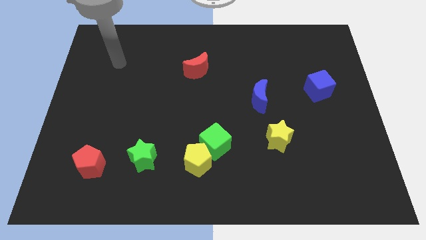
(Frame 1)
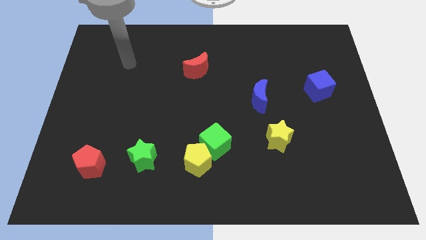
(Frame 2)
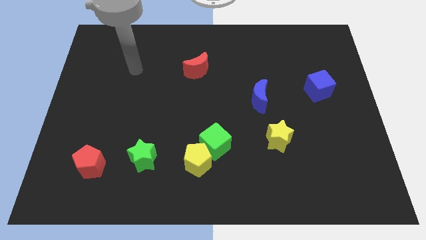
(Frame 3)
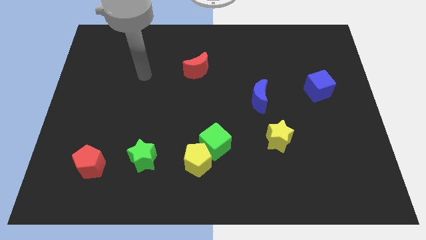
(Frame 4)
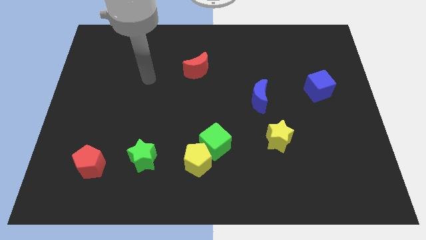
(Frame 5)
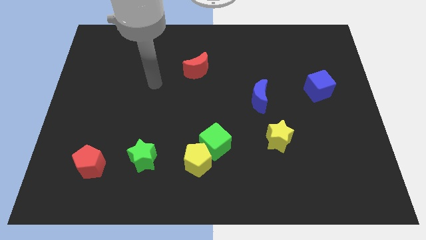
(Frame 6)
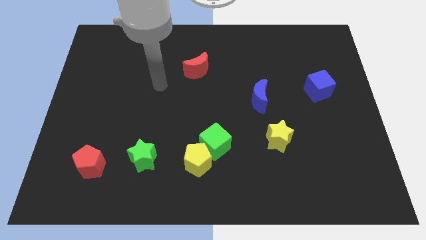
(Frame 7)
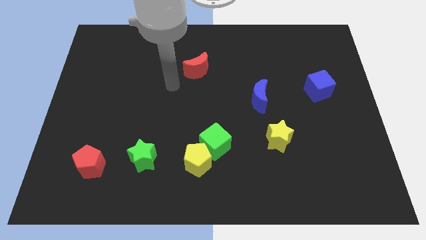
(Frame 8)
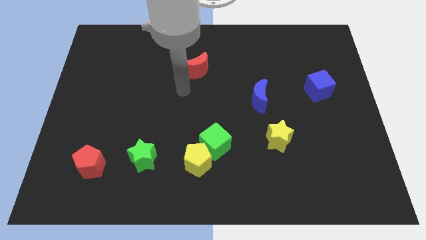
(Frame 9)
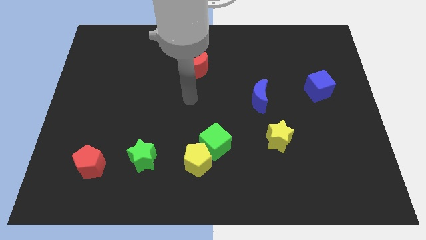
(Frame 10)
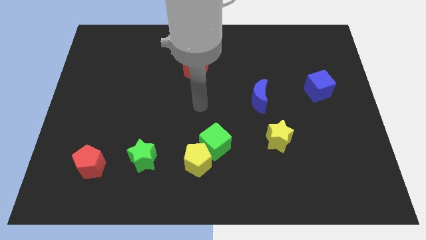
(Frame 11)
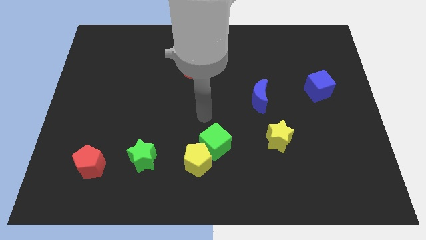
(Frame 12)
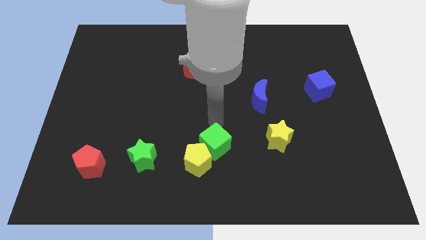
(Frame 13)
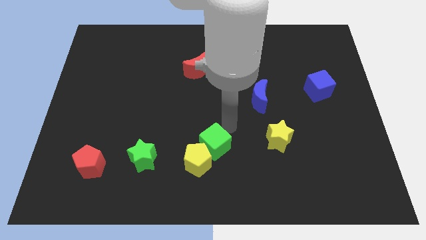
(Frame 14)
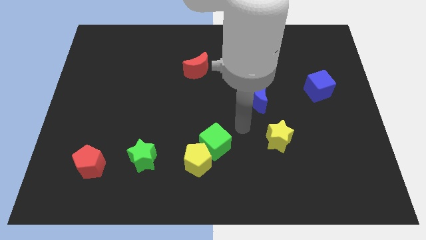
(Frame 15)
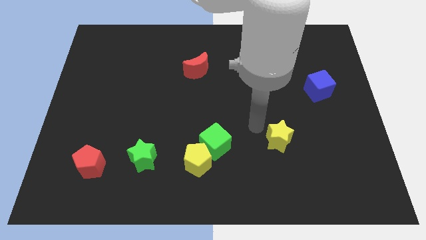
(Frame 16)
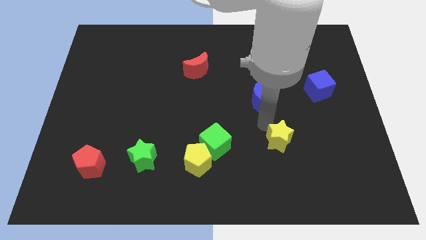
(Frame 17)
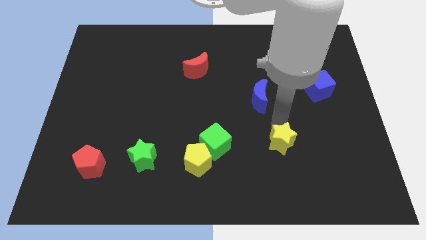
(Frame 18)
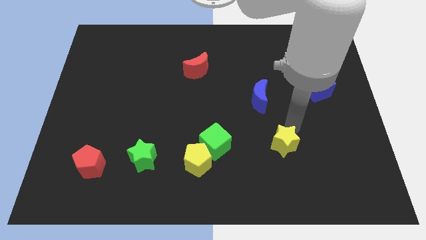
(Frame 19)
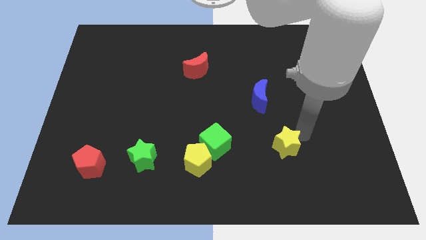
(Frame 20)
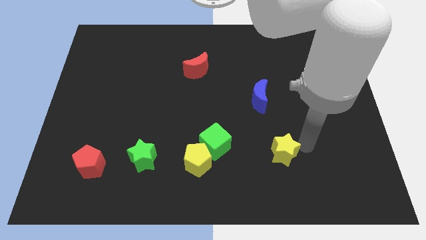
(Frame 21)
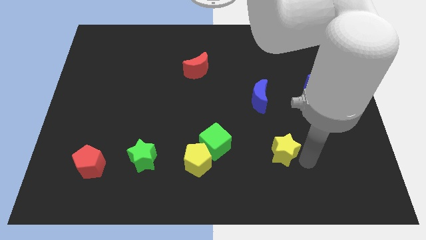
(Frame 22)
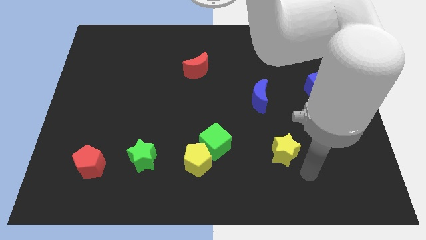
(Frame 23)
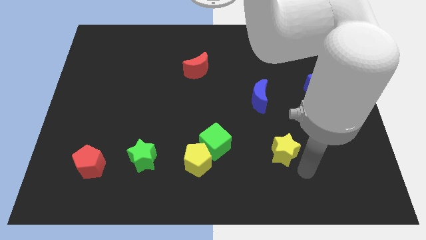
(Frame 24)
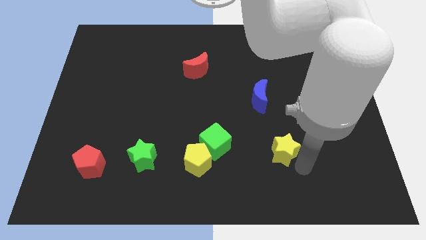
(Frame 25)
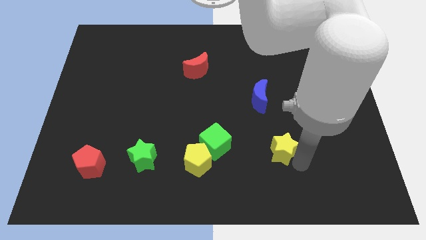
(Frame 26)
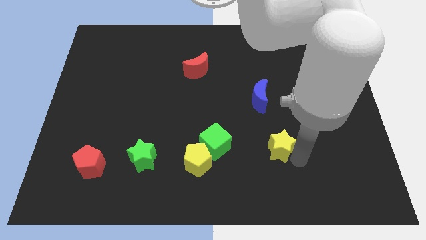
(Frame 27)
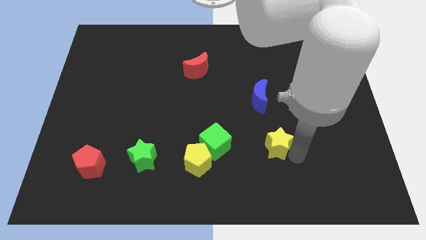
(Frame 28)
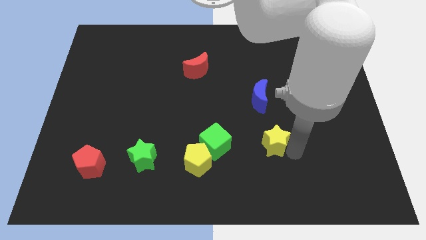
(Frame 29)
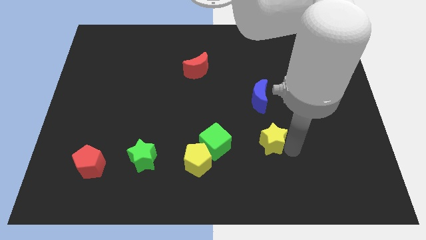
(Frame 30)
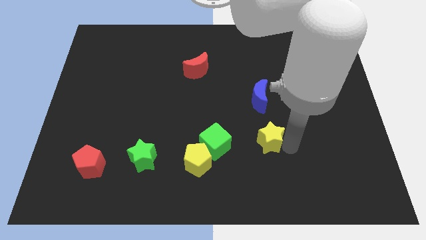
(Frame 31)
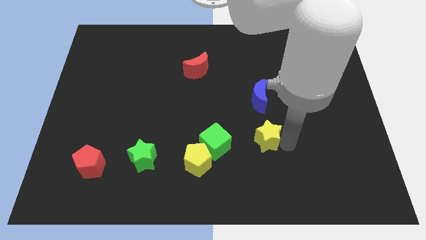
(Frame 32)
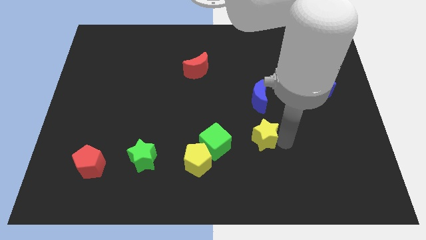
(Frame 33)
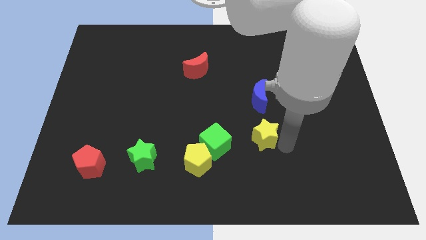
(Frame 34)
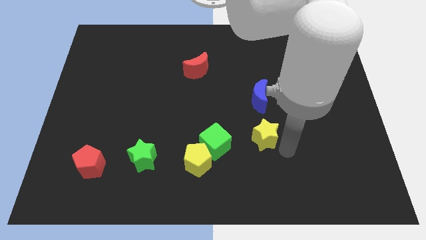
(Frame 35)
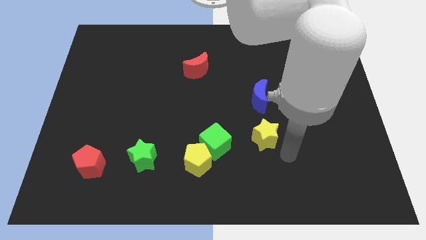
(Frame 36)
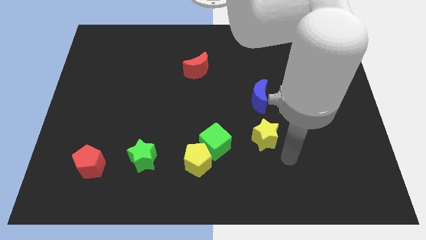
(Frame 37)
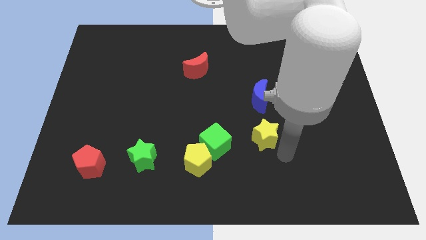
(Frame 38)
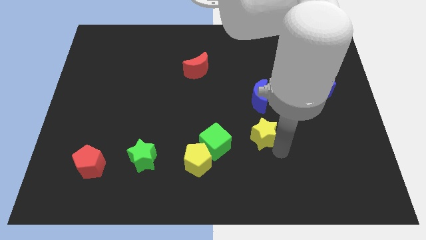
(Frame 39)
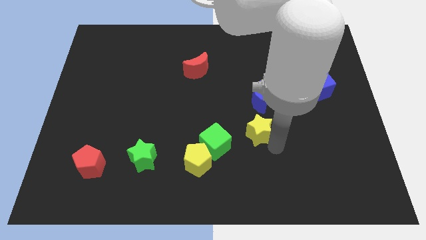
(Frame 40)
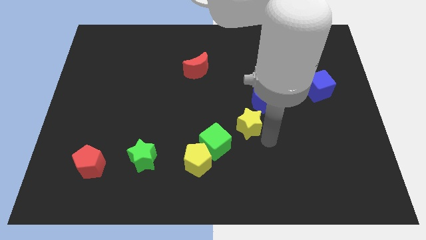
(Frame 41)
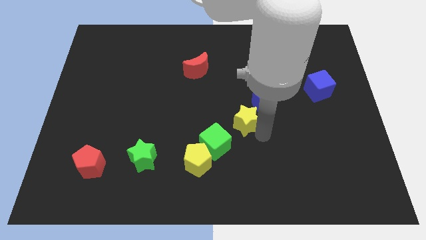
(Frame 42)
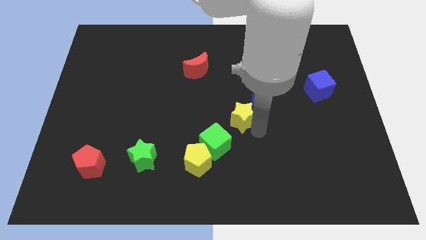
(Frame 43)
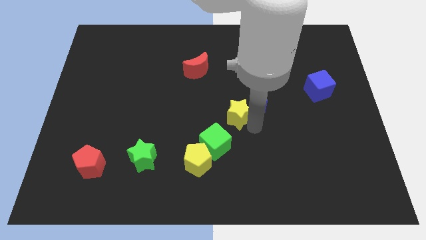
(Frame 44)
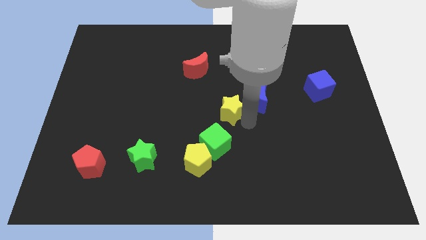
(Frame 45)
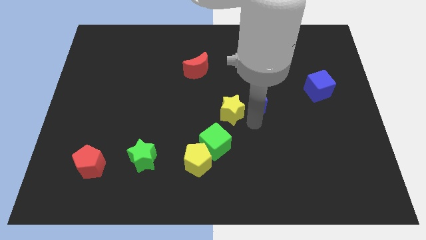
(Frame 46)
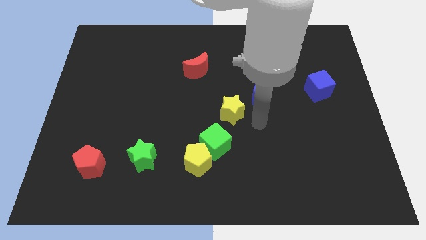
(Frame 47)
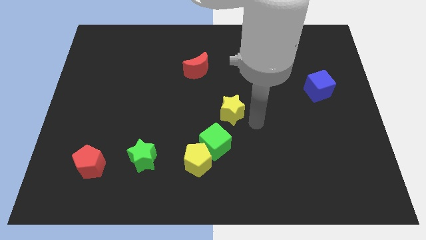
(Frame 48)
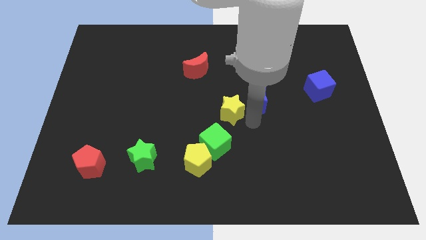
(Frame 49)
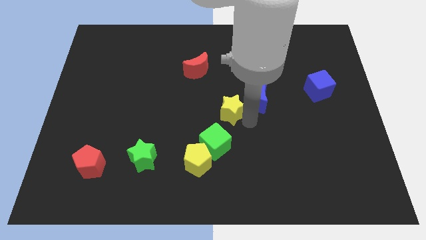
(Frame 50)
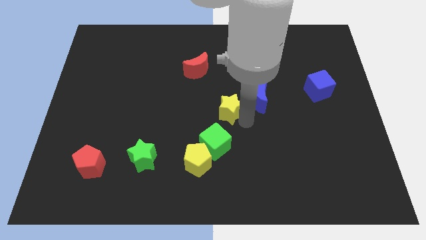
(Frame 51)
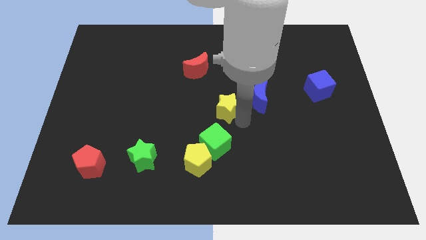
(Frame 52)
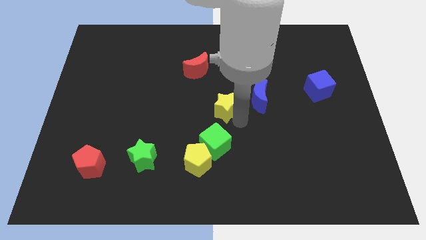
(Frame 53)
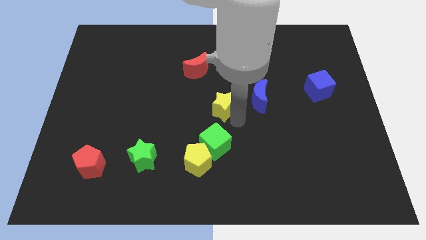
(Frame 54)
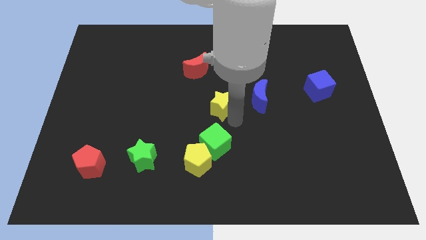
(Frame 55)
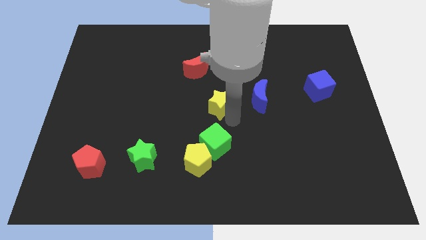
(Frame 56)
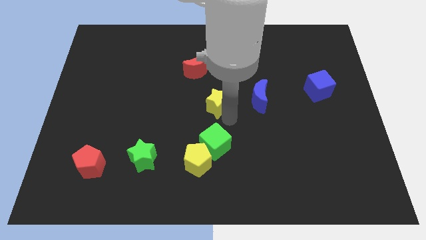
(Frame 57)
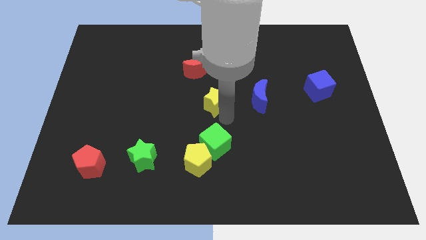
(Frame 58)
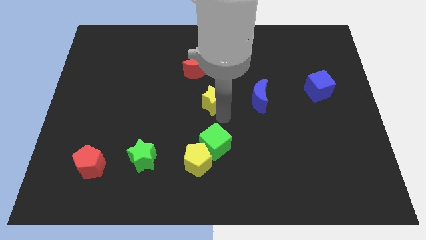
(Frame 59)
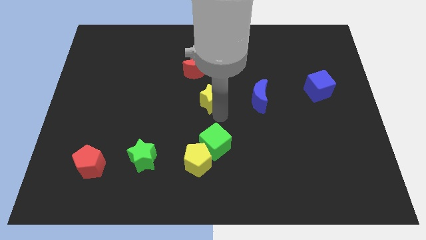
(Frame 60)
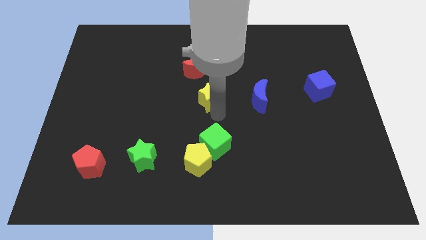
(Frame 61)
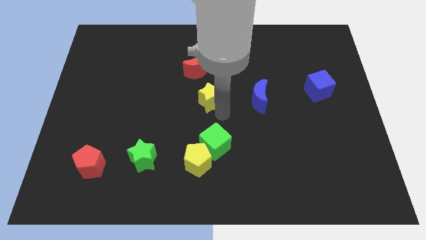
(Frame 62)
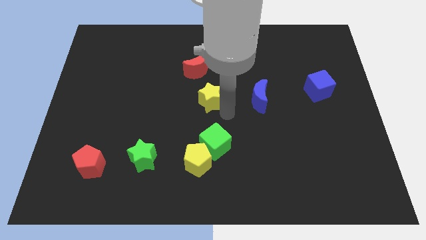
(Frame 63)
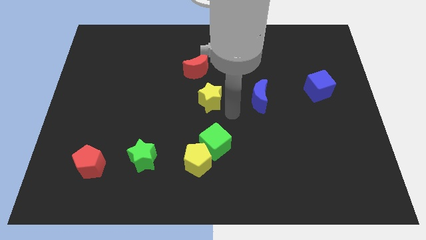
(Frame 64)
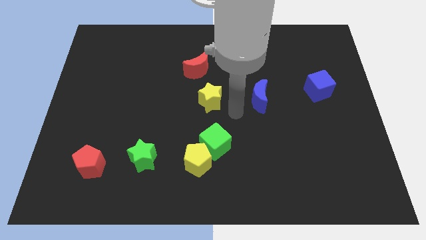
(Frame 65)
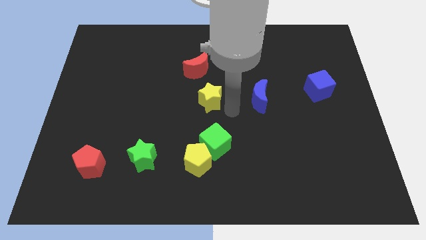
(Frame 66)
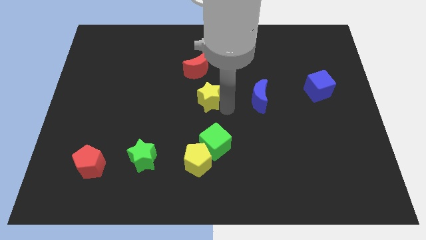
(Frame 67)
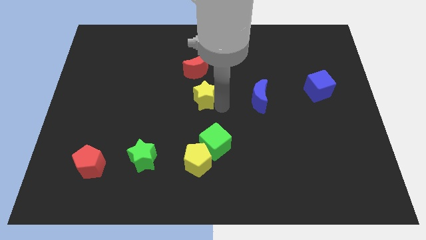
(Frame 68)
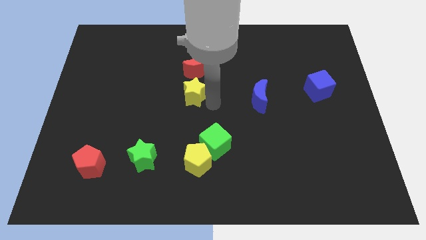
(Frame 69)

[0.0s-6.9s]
slide the yellow star up and then to the left

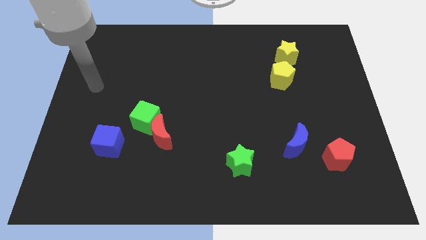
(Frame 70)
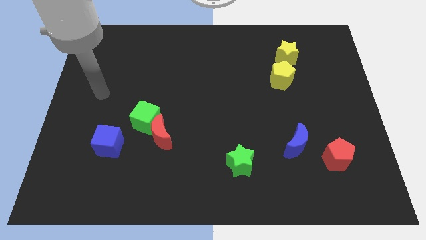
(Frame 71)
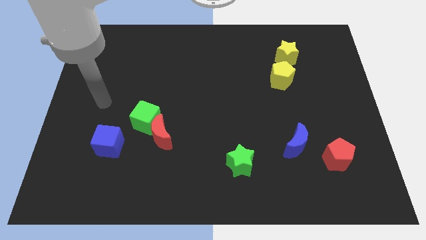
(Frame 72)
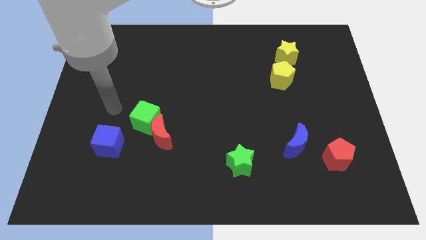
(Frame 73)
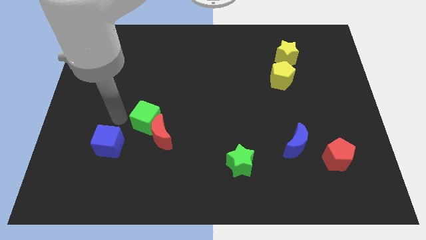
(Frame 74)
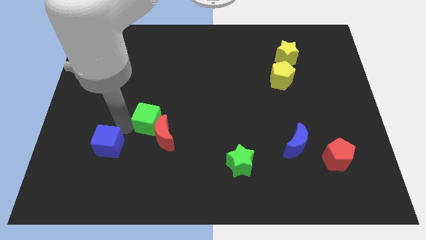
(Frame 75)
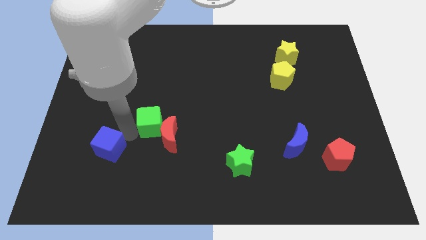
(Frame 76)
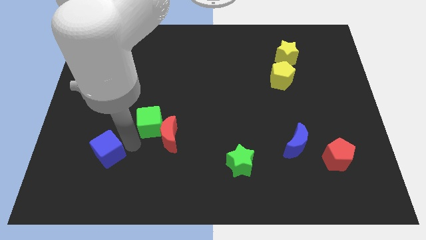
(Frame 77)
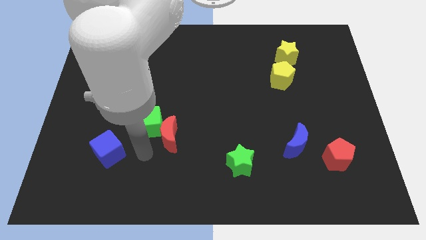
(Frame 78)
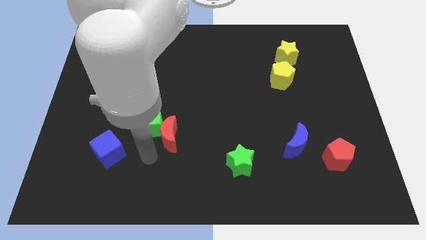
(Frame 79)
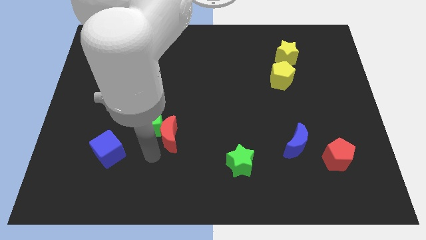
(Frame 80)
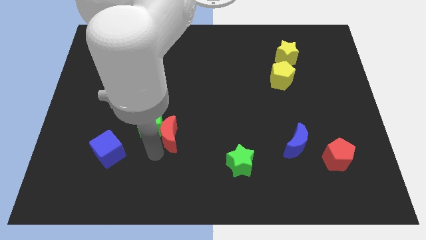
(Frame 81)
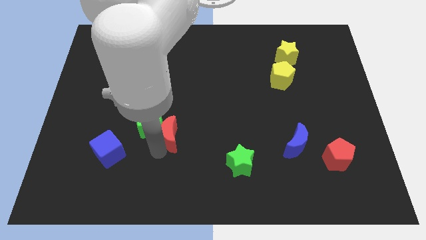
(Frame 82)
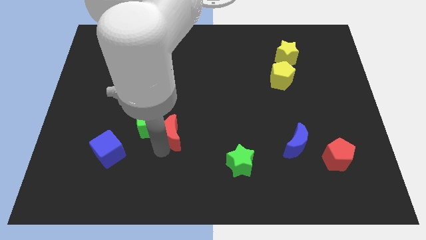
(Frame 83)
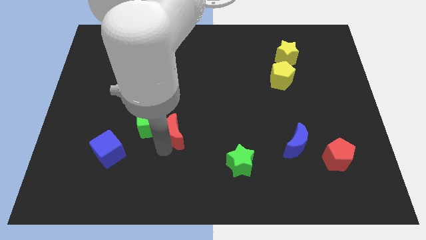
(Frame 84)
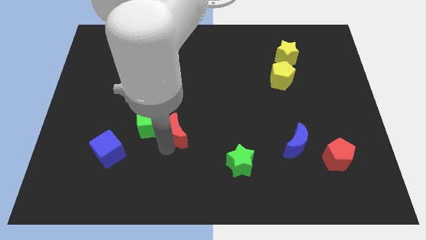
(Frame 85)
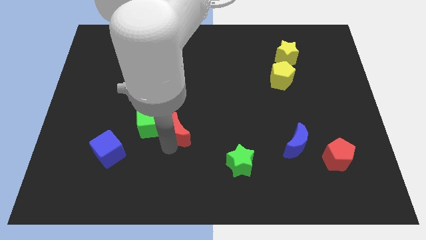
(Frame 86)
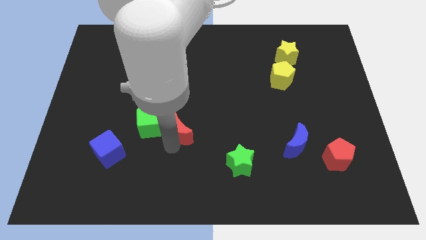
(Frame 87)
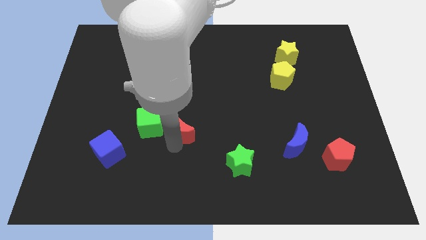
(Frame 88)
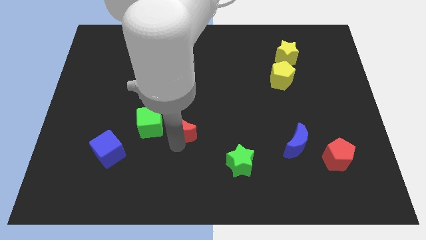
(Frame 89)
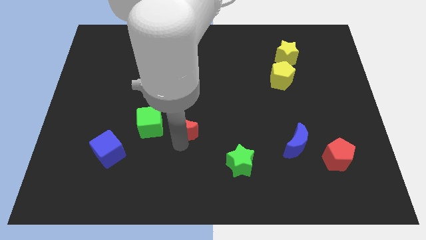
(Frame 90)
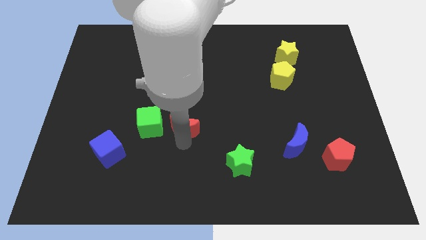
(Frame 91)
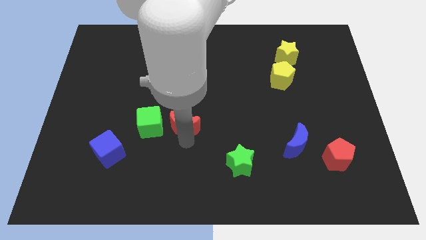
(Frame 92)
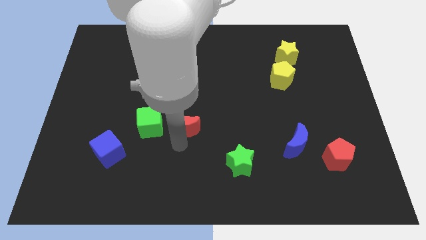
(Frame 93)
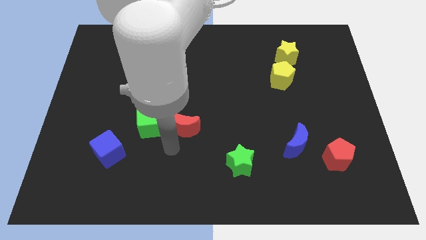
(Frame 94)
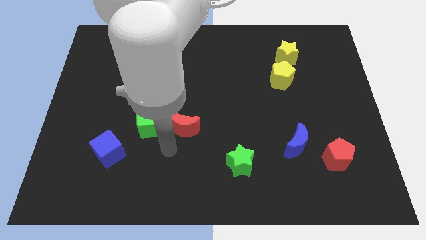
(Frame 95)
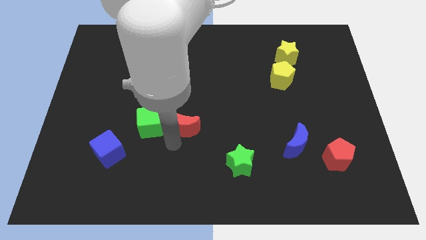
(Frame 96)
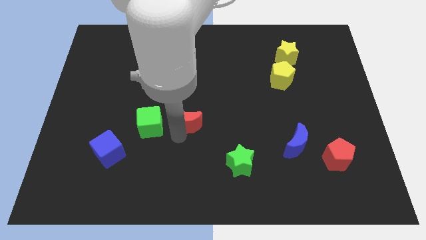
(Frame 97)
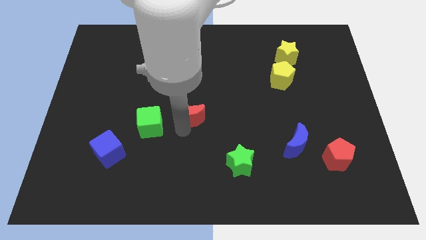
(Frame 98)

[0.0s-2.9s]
push the red moon up and right a little bit
